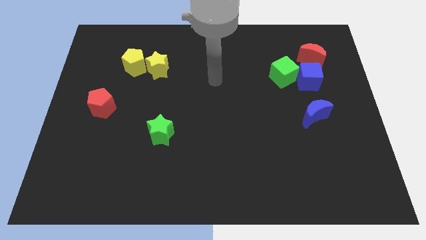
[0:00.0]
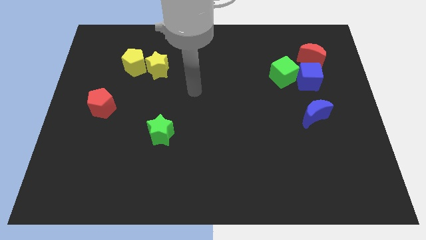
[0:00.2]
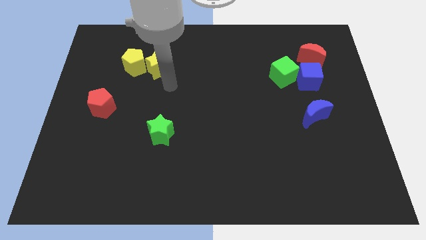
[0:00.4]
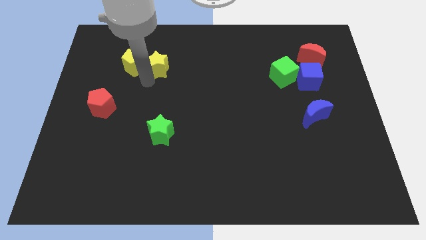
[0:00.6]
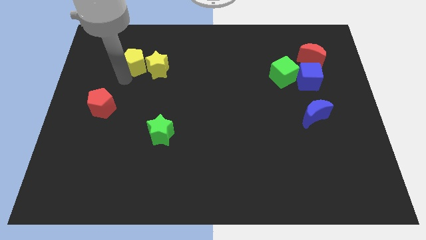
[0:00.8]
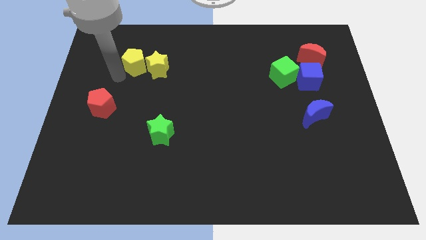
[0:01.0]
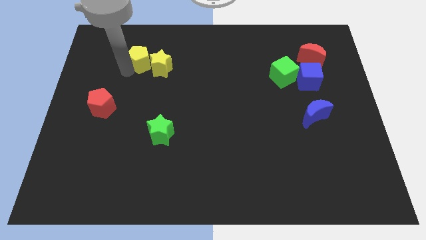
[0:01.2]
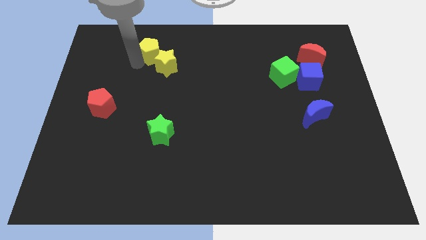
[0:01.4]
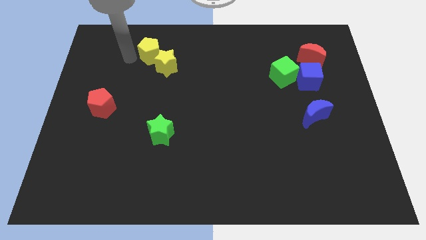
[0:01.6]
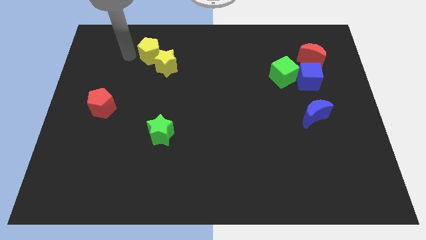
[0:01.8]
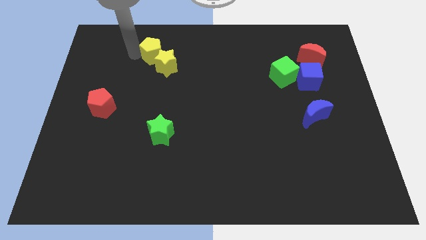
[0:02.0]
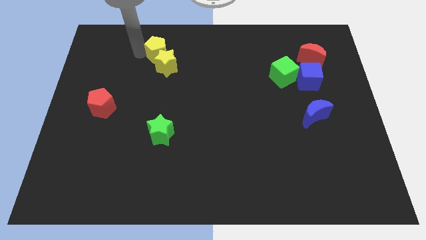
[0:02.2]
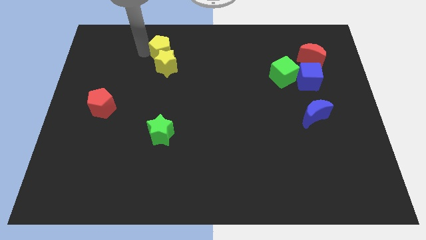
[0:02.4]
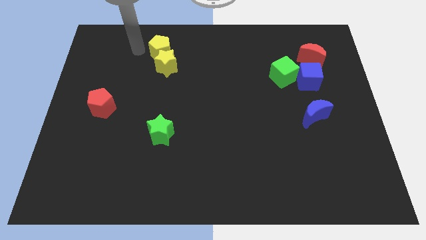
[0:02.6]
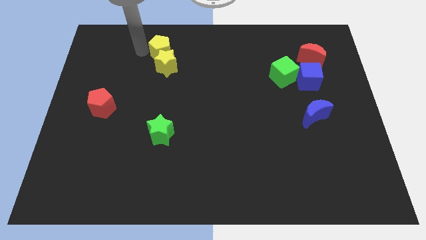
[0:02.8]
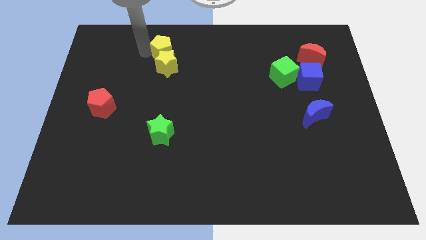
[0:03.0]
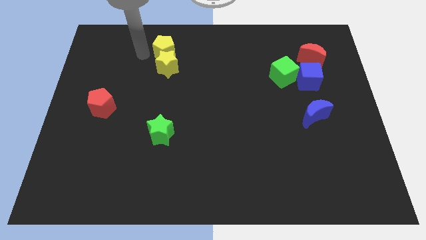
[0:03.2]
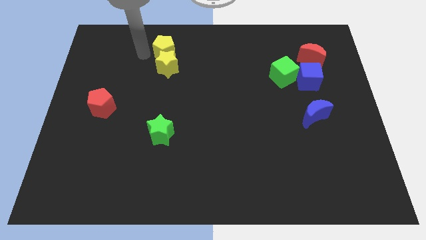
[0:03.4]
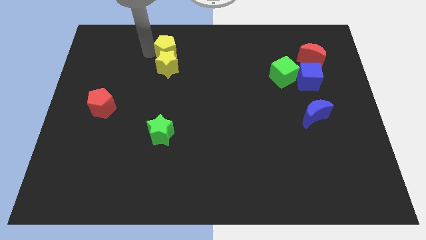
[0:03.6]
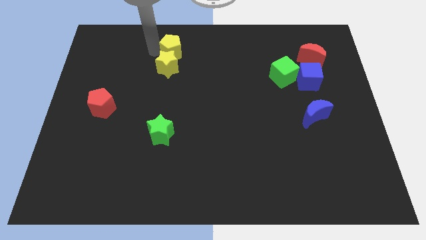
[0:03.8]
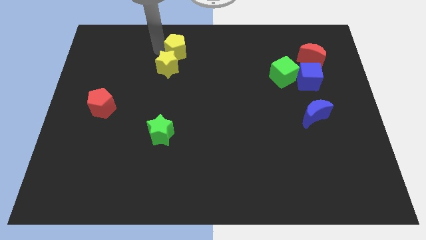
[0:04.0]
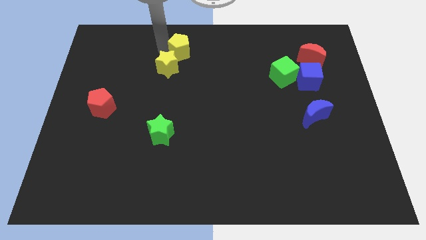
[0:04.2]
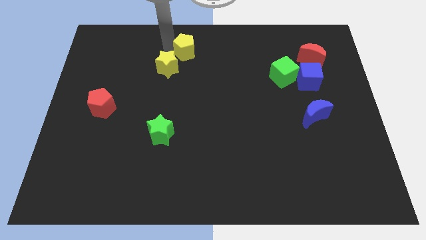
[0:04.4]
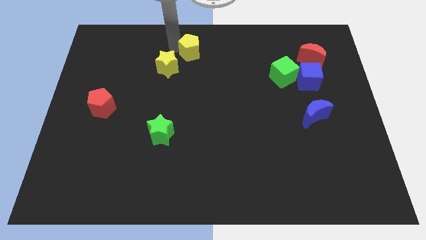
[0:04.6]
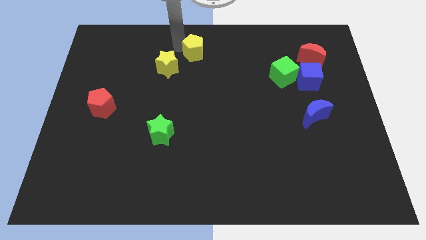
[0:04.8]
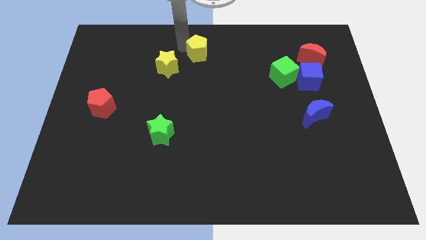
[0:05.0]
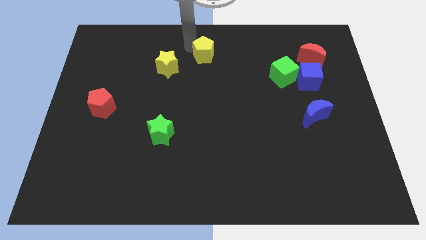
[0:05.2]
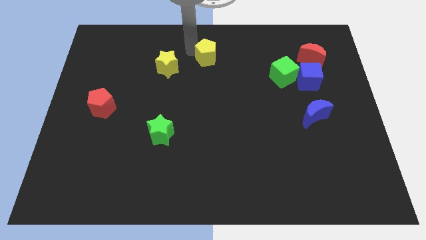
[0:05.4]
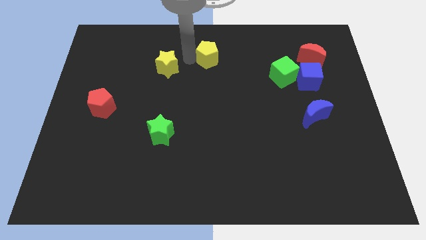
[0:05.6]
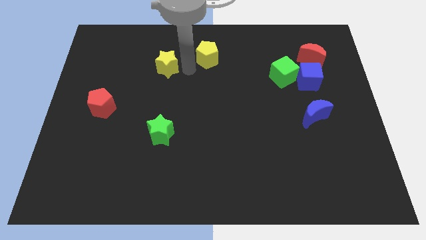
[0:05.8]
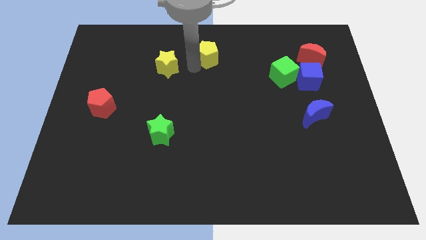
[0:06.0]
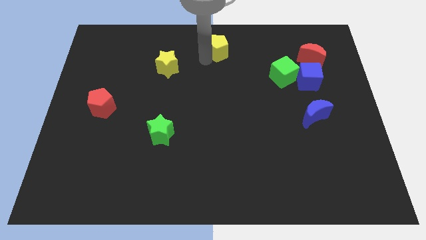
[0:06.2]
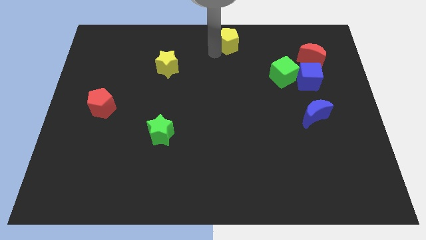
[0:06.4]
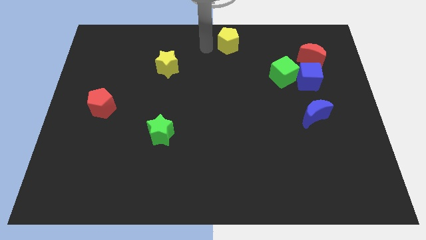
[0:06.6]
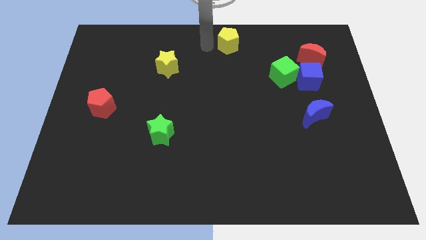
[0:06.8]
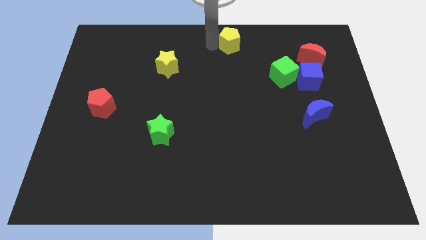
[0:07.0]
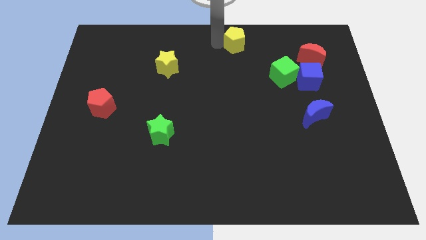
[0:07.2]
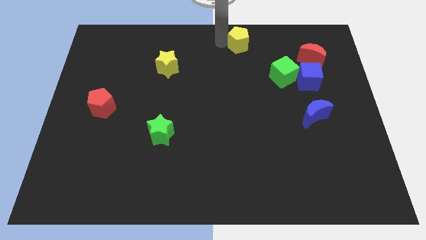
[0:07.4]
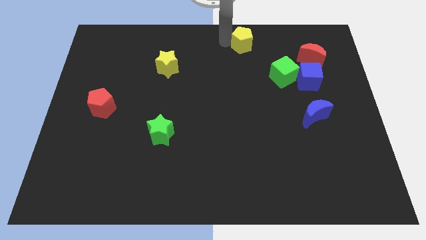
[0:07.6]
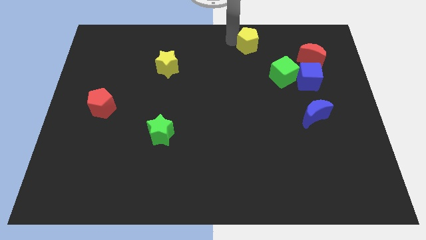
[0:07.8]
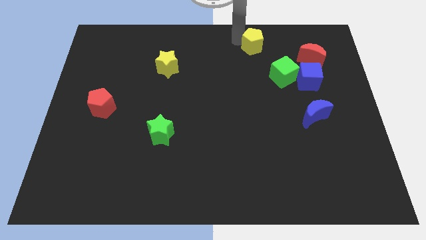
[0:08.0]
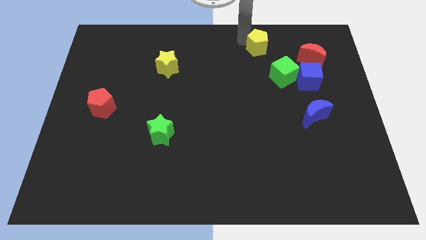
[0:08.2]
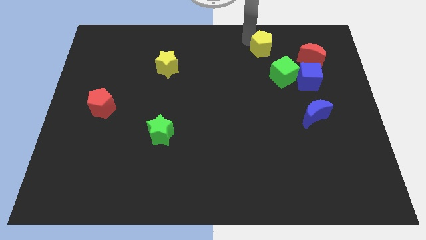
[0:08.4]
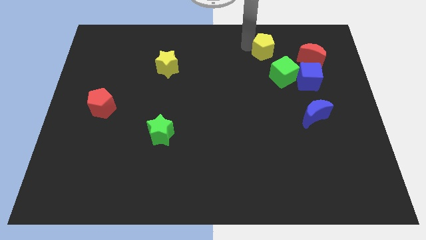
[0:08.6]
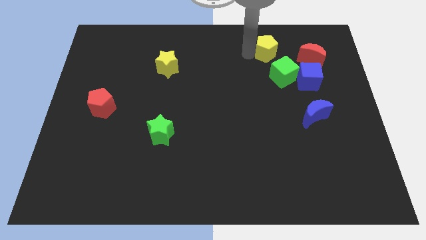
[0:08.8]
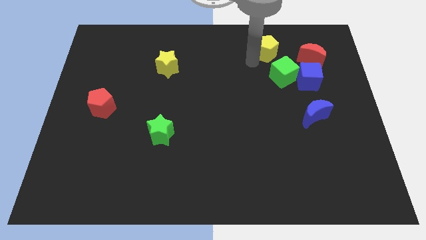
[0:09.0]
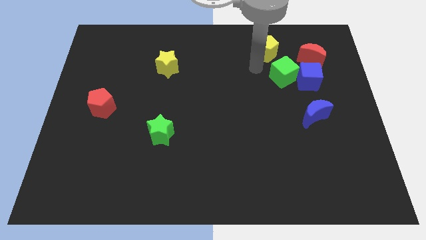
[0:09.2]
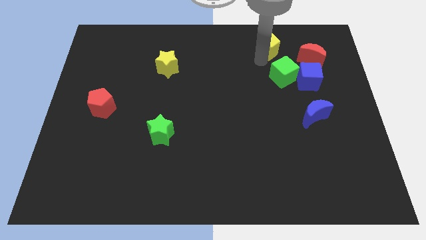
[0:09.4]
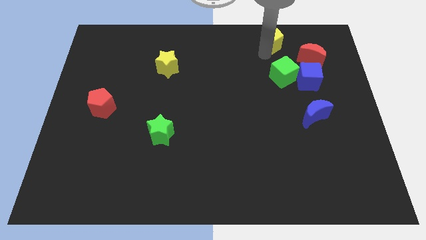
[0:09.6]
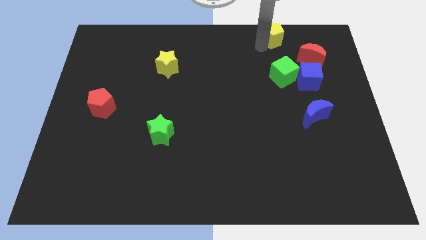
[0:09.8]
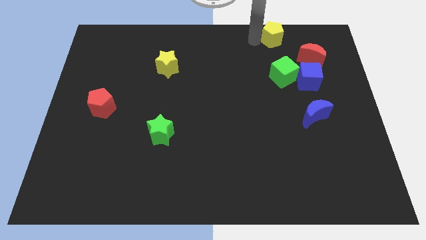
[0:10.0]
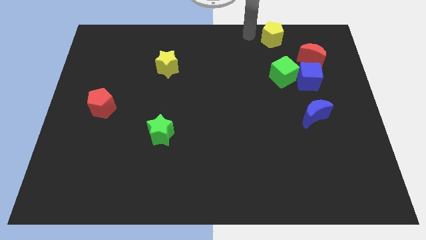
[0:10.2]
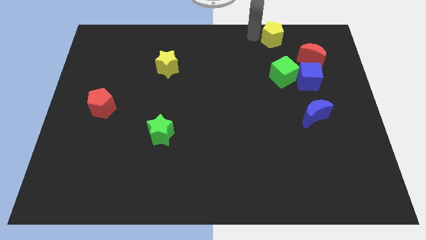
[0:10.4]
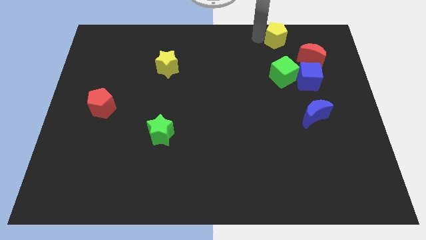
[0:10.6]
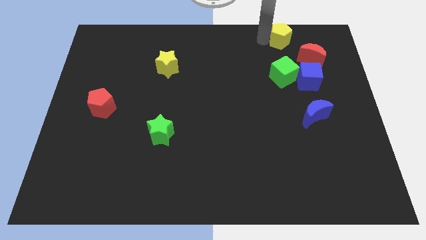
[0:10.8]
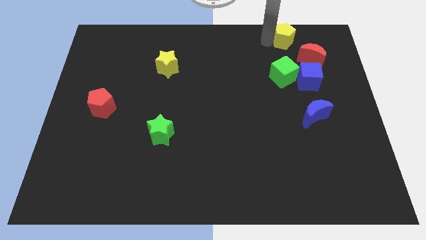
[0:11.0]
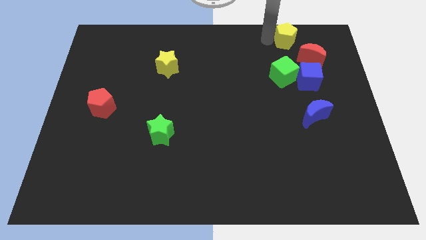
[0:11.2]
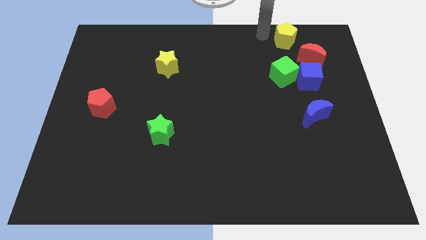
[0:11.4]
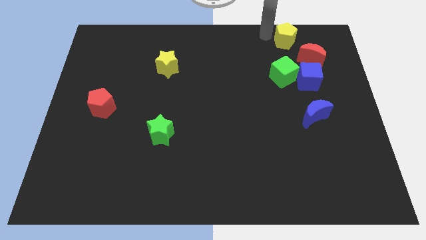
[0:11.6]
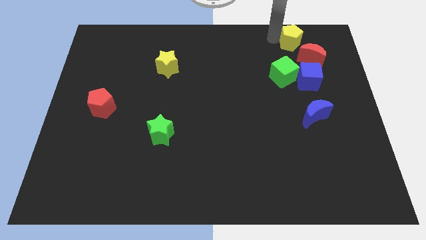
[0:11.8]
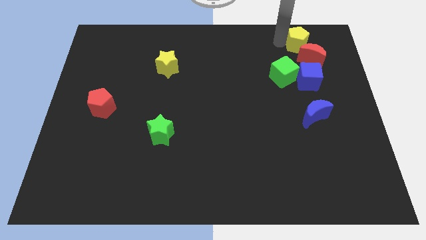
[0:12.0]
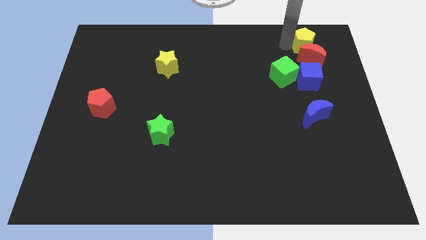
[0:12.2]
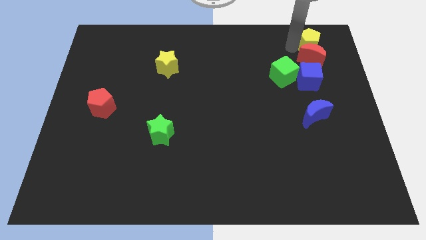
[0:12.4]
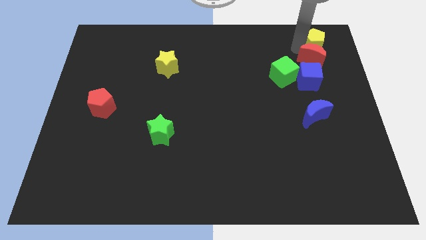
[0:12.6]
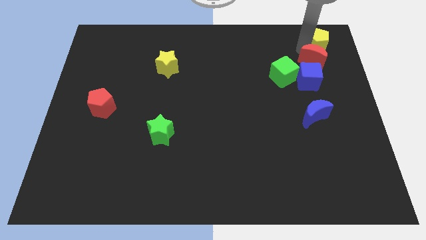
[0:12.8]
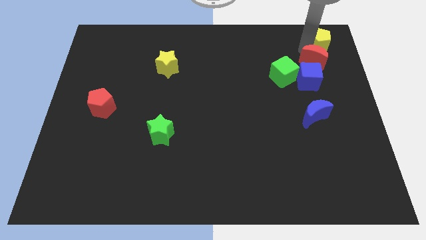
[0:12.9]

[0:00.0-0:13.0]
move the yellow pentagon to the top right corner
